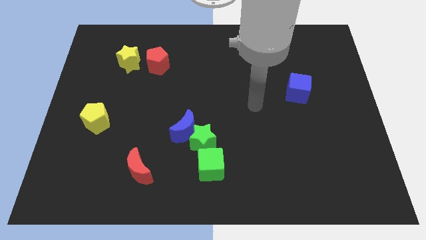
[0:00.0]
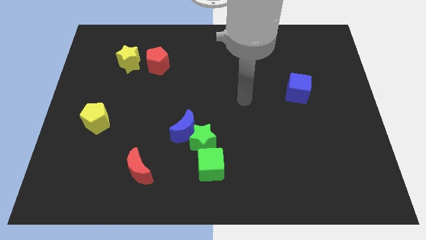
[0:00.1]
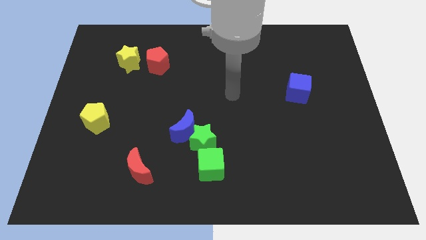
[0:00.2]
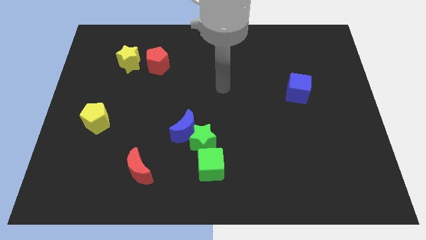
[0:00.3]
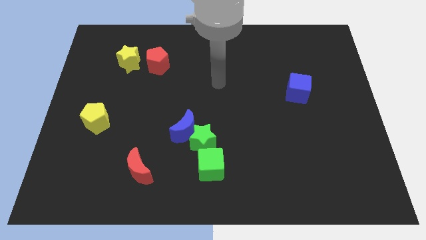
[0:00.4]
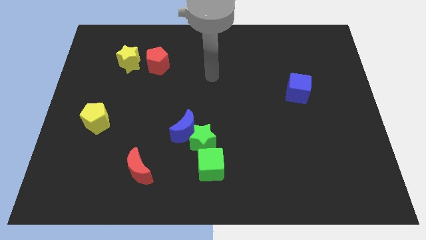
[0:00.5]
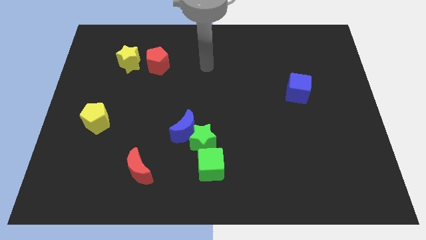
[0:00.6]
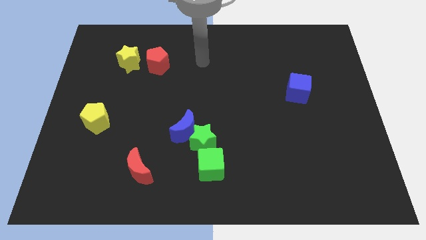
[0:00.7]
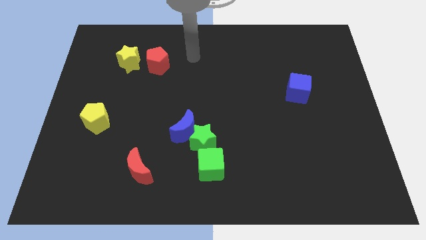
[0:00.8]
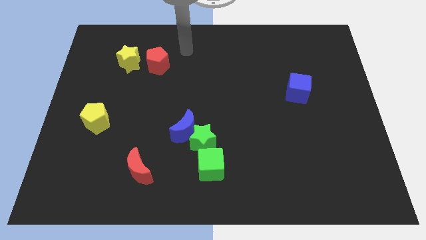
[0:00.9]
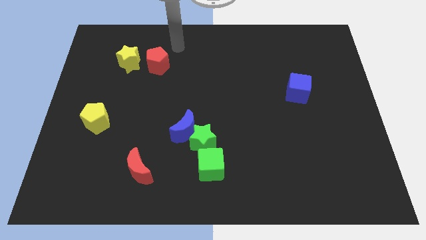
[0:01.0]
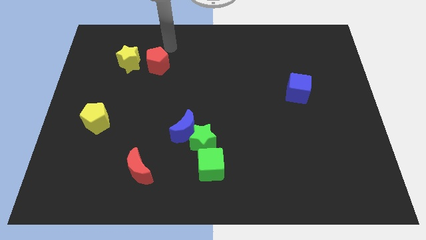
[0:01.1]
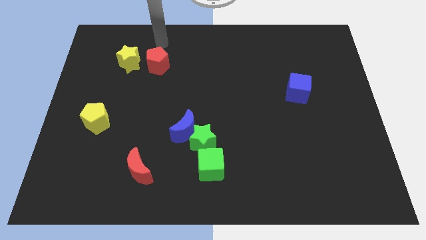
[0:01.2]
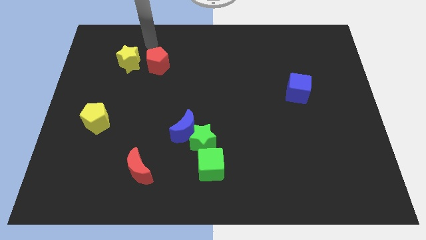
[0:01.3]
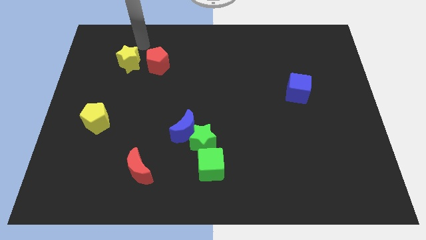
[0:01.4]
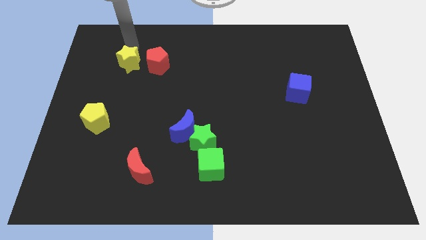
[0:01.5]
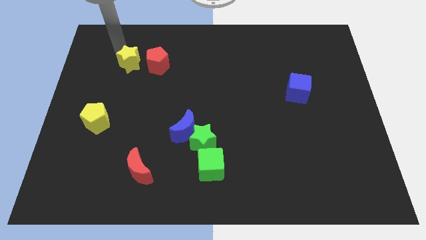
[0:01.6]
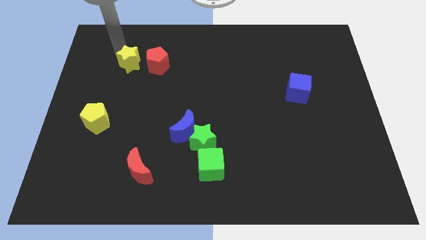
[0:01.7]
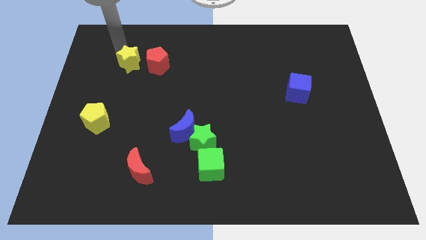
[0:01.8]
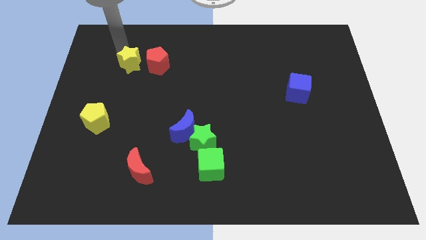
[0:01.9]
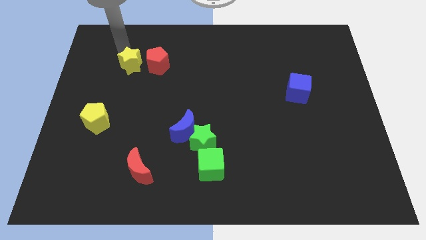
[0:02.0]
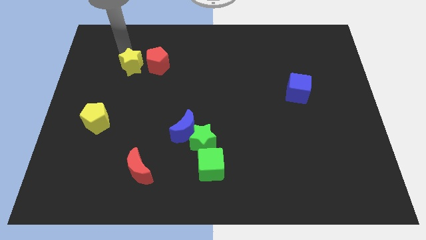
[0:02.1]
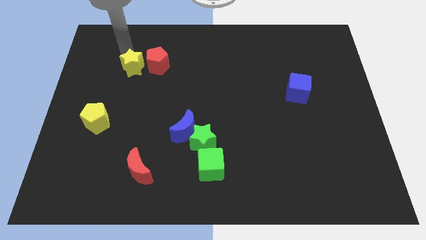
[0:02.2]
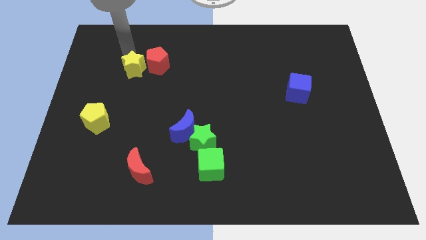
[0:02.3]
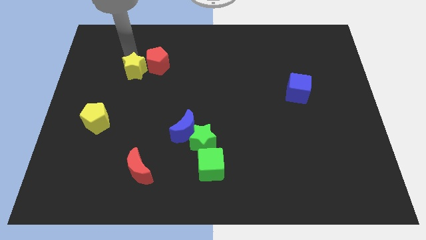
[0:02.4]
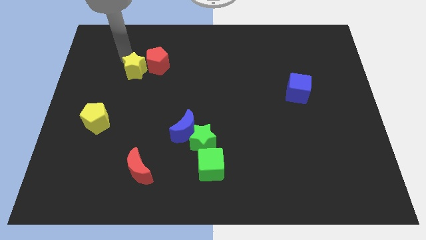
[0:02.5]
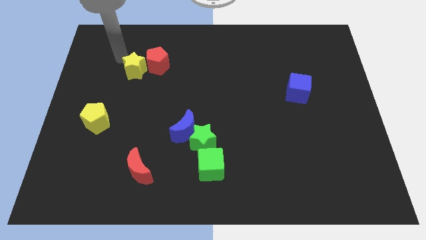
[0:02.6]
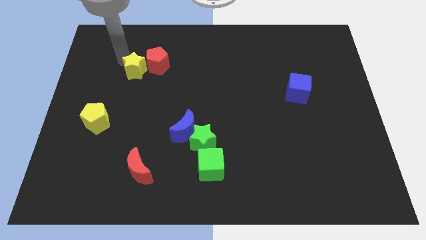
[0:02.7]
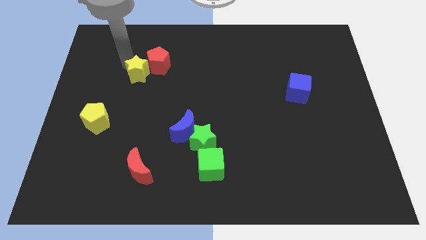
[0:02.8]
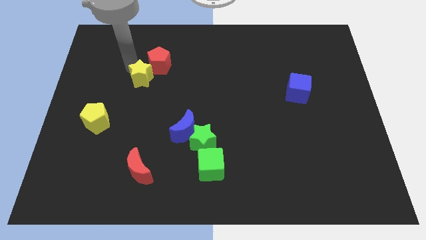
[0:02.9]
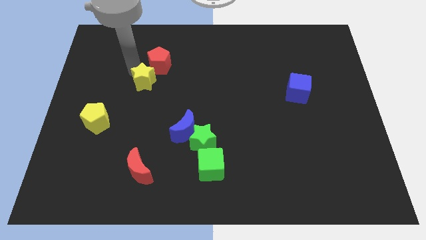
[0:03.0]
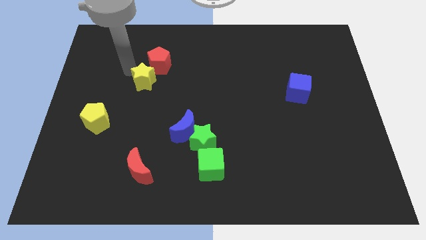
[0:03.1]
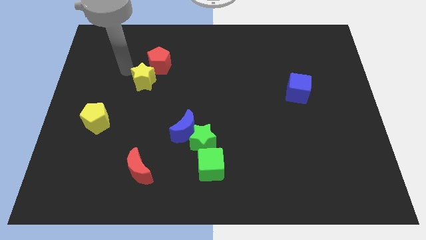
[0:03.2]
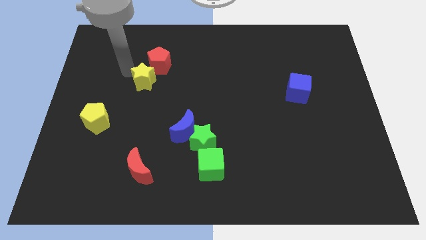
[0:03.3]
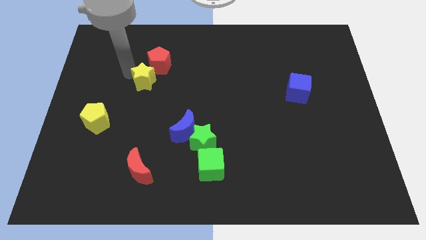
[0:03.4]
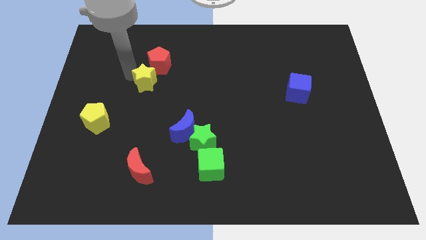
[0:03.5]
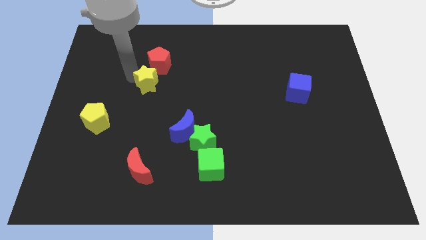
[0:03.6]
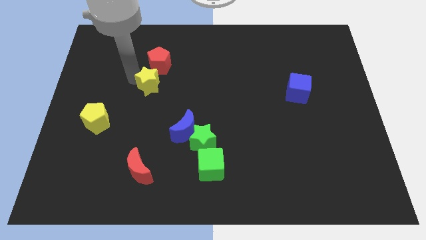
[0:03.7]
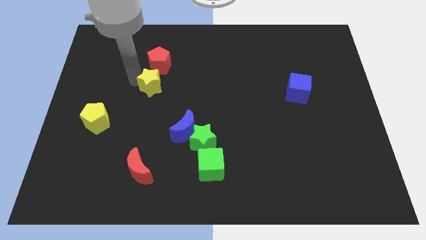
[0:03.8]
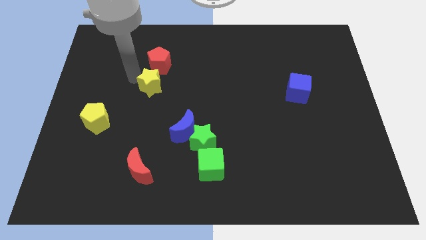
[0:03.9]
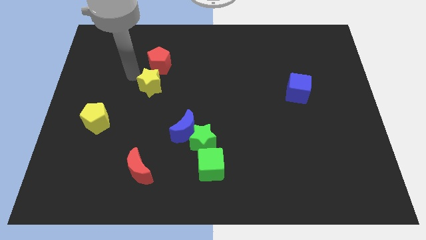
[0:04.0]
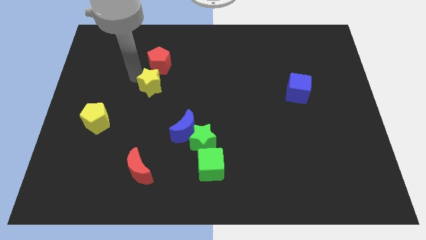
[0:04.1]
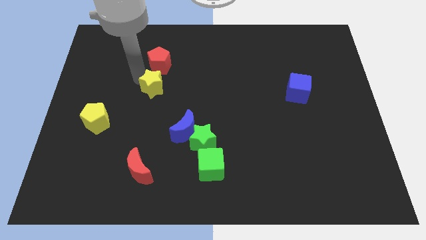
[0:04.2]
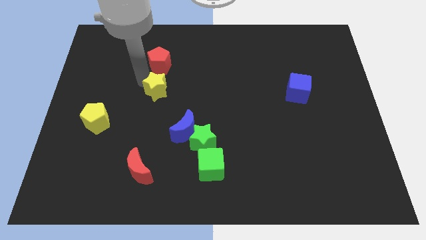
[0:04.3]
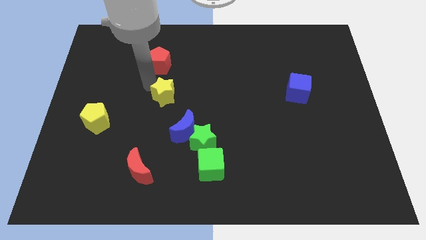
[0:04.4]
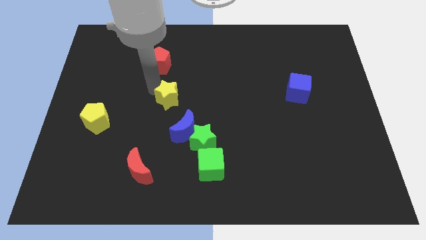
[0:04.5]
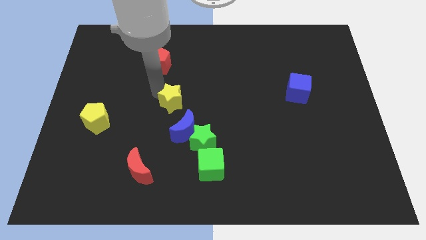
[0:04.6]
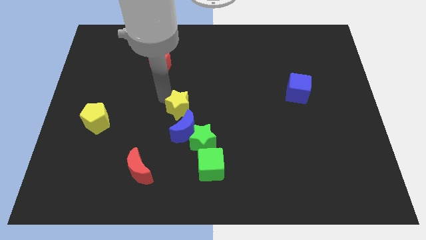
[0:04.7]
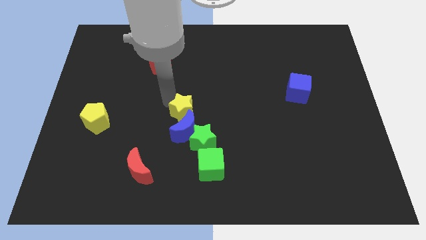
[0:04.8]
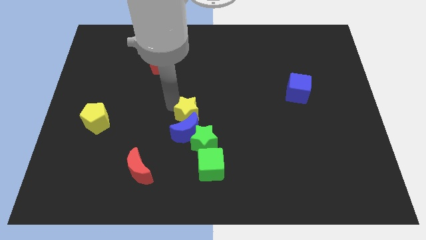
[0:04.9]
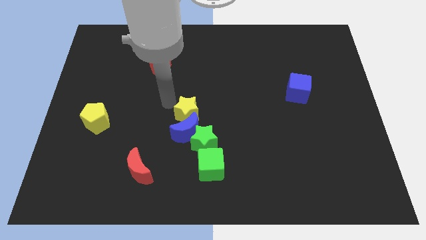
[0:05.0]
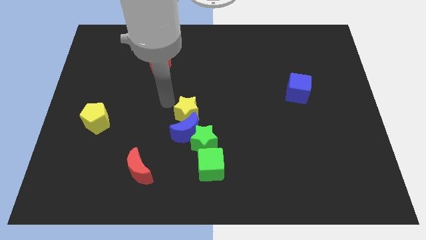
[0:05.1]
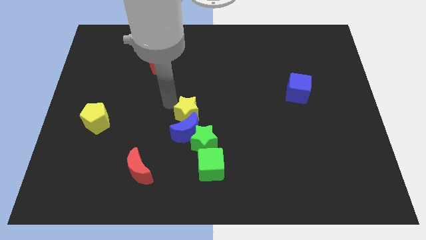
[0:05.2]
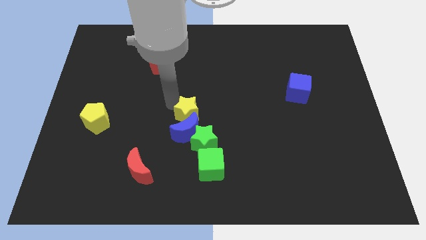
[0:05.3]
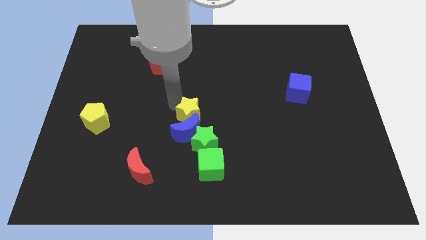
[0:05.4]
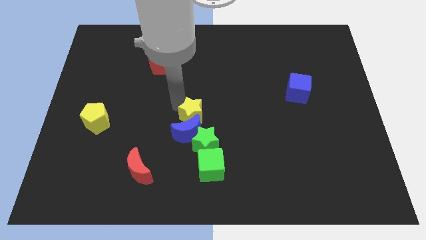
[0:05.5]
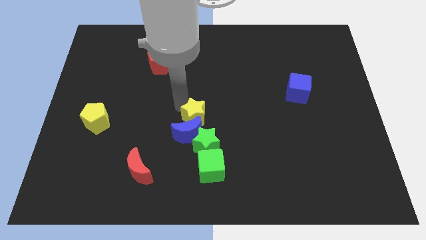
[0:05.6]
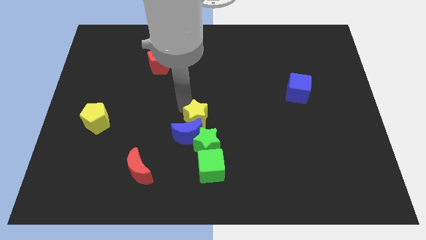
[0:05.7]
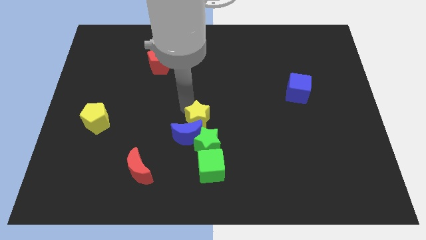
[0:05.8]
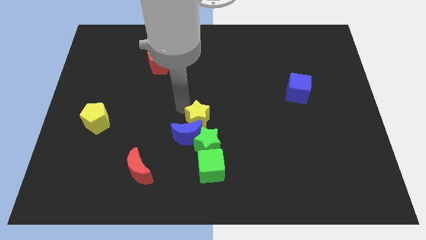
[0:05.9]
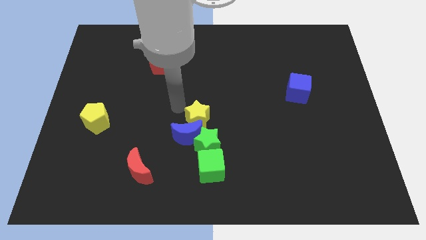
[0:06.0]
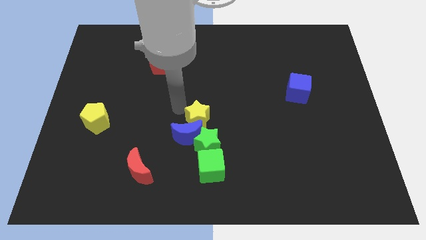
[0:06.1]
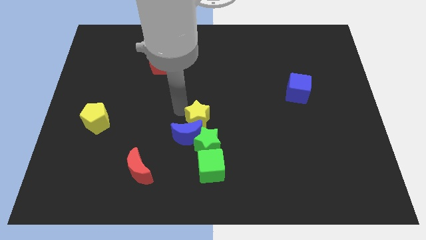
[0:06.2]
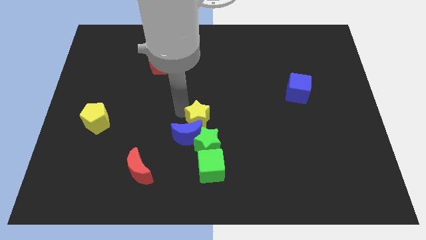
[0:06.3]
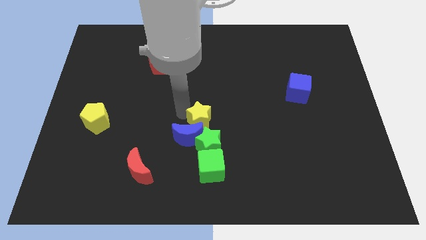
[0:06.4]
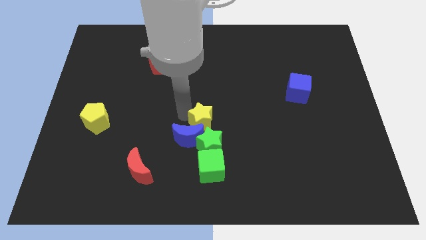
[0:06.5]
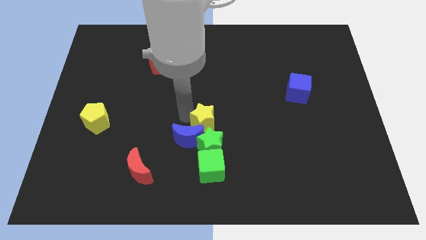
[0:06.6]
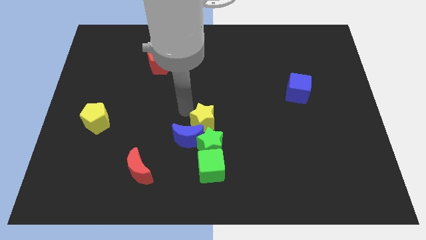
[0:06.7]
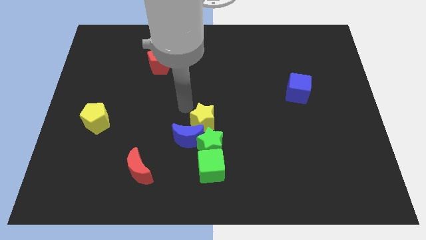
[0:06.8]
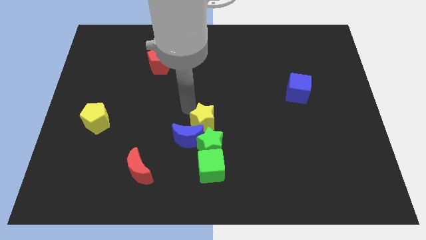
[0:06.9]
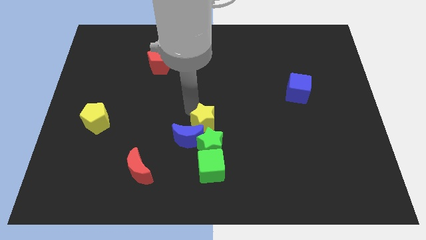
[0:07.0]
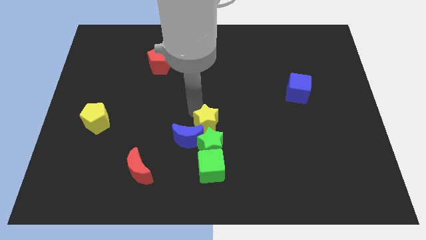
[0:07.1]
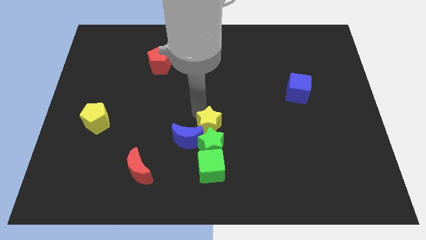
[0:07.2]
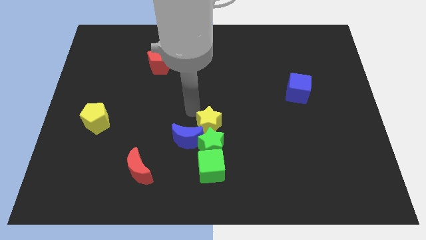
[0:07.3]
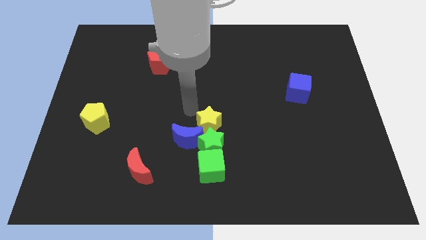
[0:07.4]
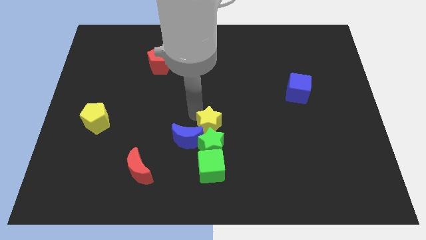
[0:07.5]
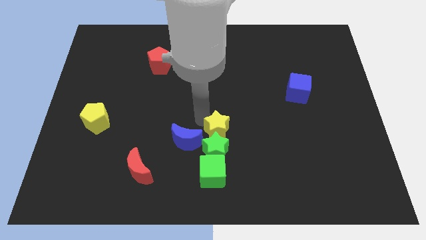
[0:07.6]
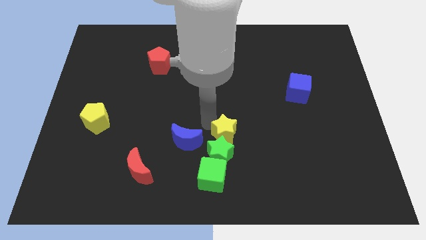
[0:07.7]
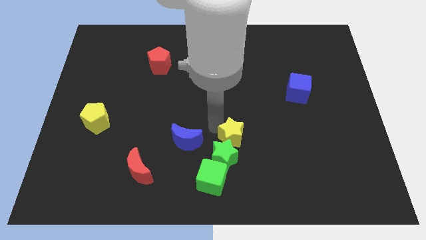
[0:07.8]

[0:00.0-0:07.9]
push the yellow star to the top right side of the green cube
